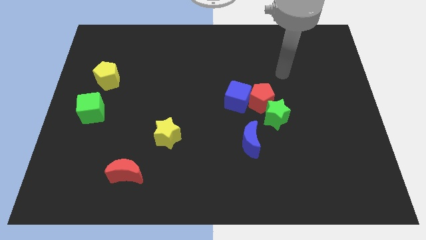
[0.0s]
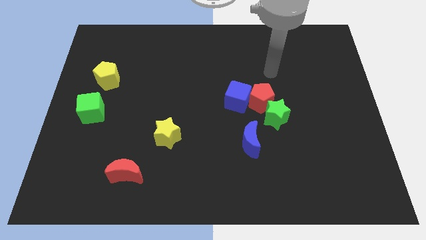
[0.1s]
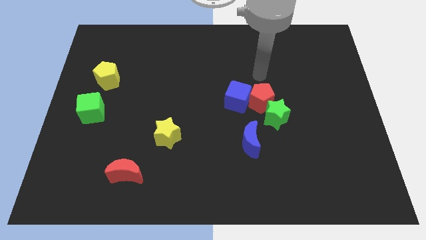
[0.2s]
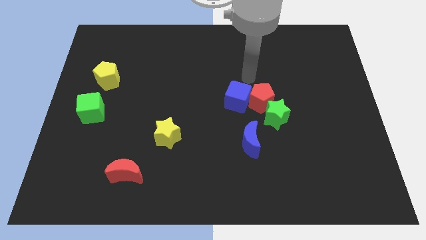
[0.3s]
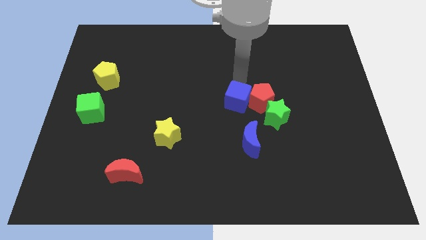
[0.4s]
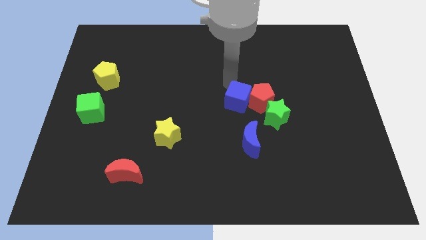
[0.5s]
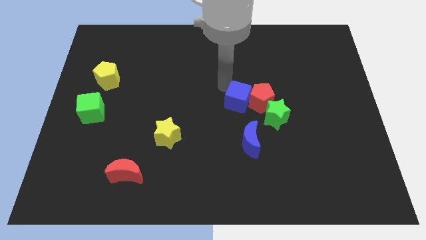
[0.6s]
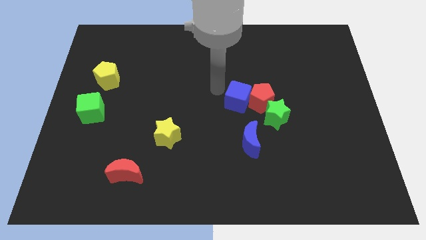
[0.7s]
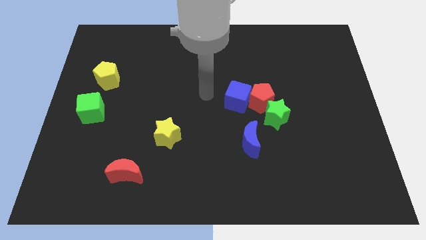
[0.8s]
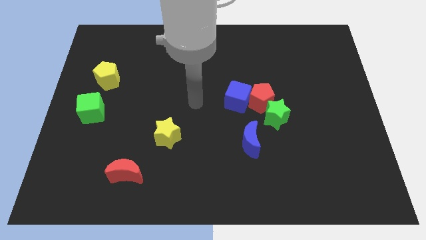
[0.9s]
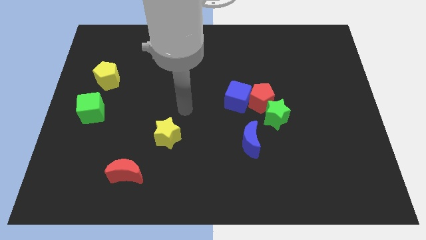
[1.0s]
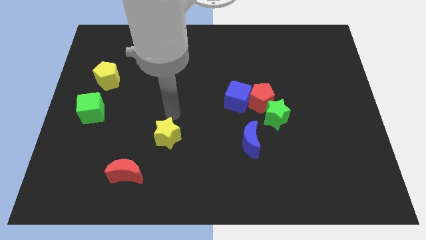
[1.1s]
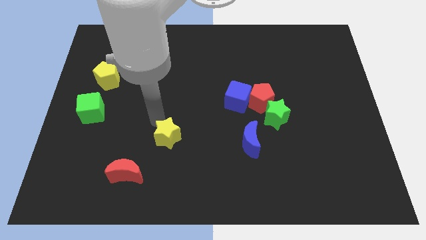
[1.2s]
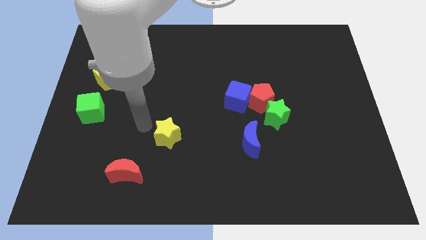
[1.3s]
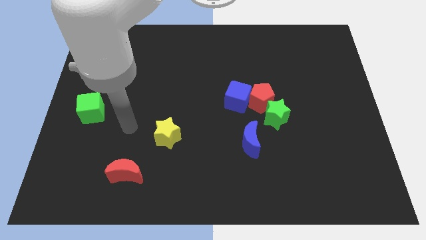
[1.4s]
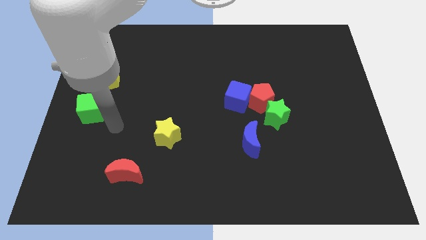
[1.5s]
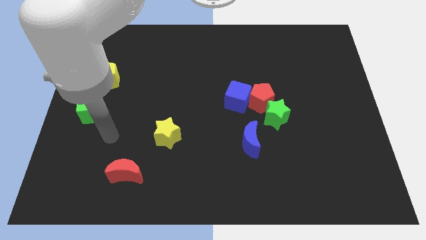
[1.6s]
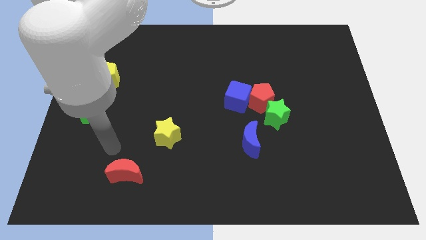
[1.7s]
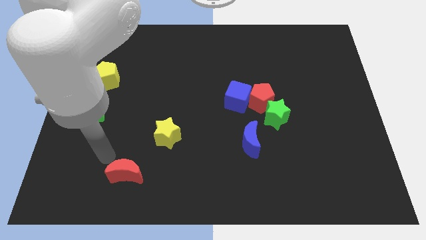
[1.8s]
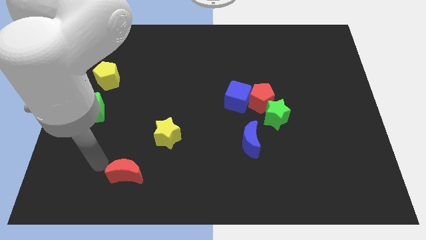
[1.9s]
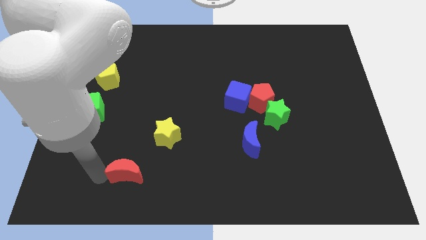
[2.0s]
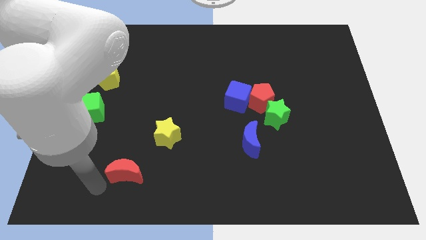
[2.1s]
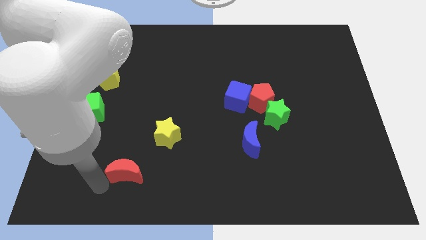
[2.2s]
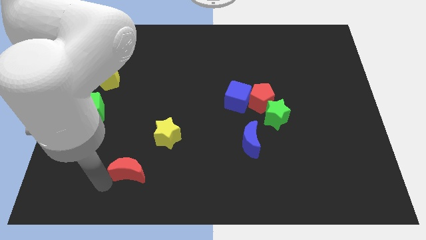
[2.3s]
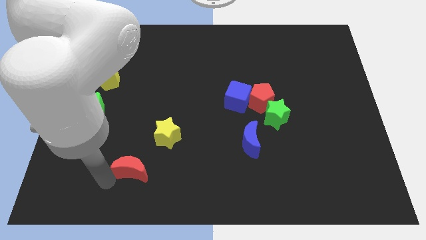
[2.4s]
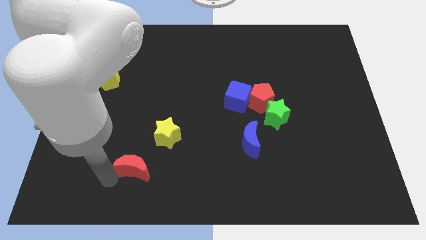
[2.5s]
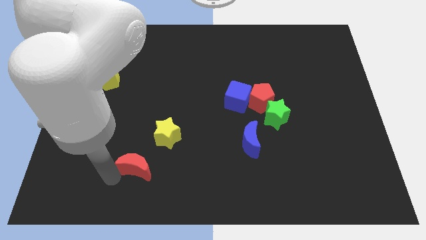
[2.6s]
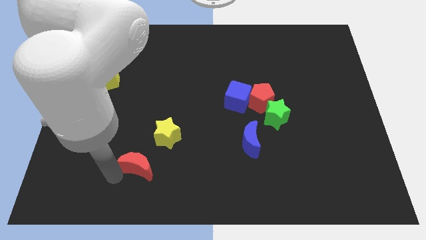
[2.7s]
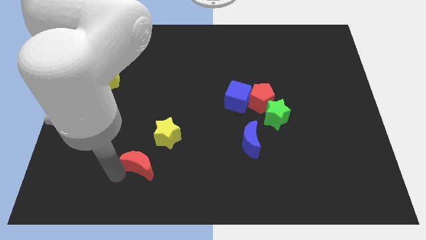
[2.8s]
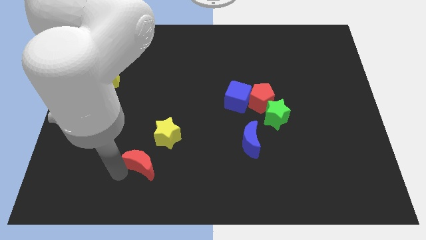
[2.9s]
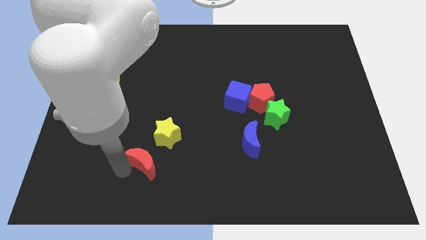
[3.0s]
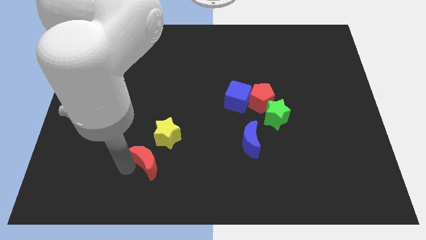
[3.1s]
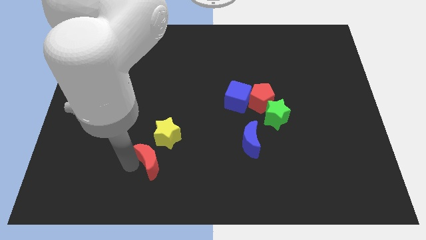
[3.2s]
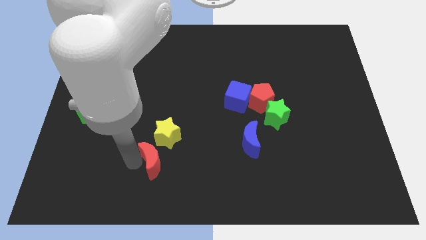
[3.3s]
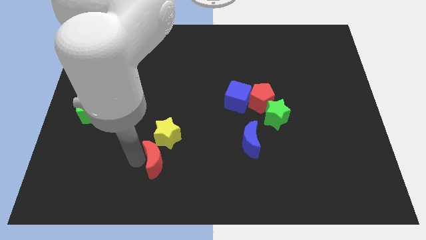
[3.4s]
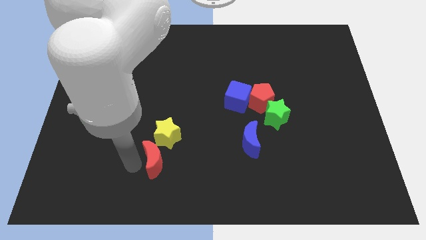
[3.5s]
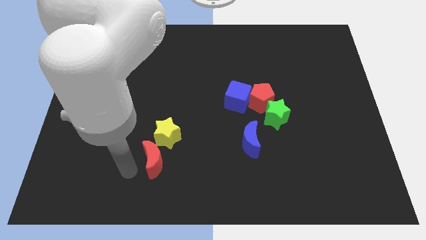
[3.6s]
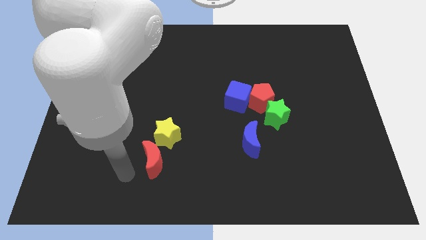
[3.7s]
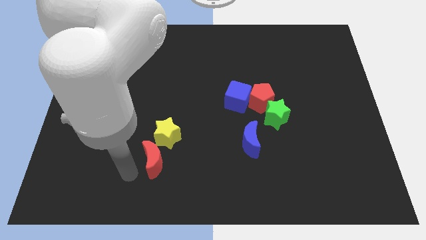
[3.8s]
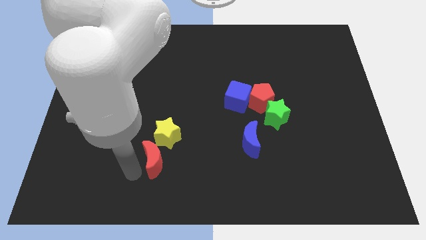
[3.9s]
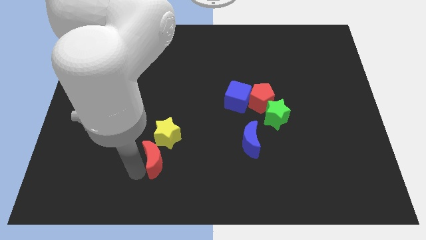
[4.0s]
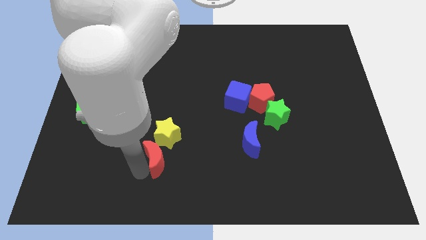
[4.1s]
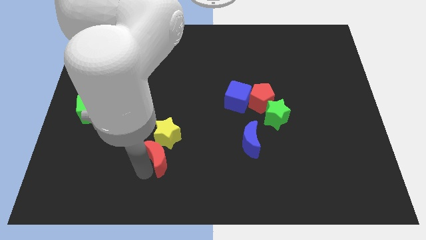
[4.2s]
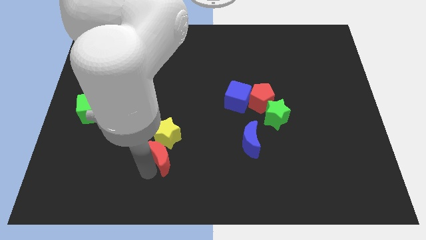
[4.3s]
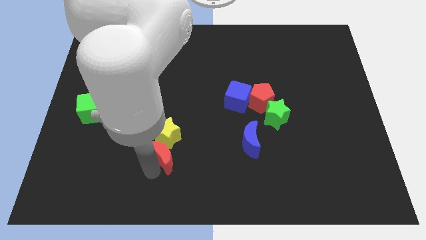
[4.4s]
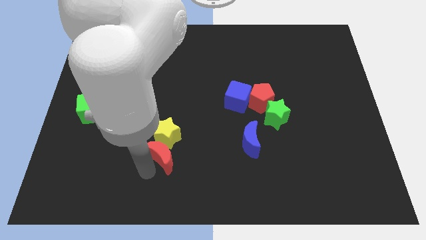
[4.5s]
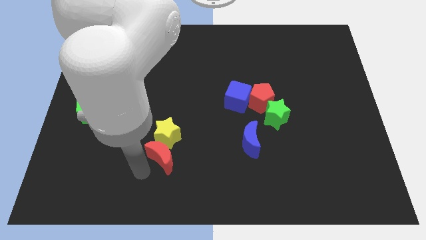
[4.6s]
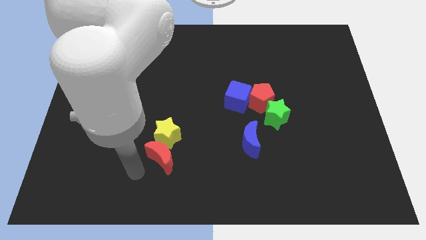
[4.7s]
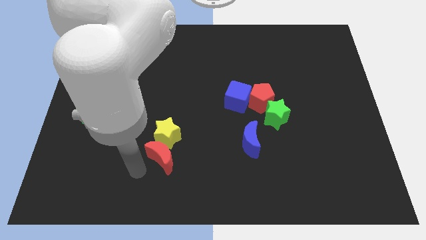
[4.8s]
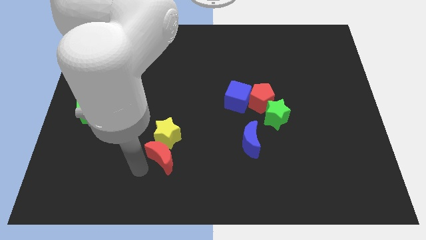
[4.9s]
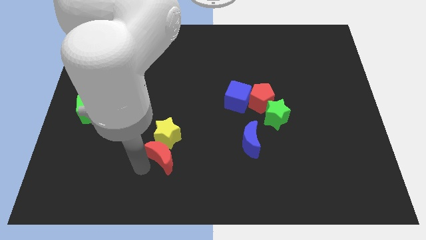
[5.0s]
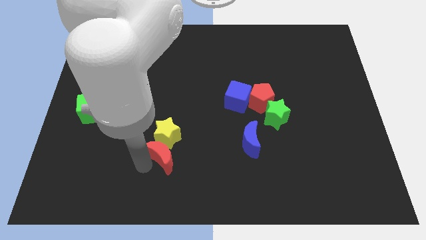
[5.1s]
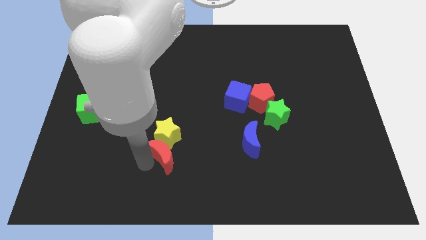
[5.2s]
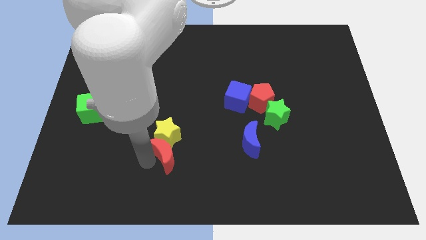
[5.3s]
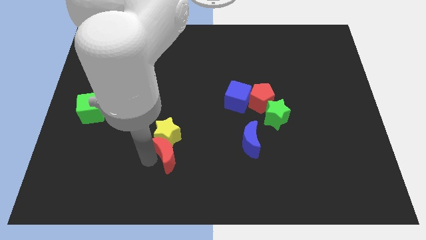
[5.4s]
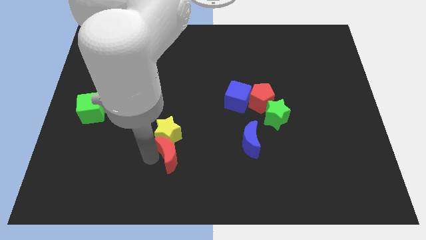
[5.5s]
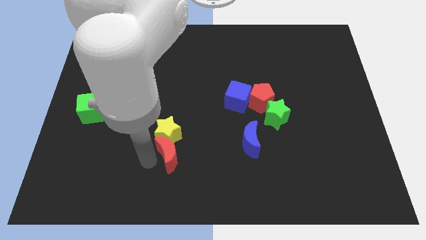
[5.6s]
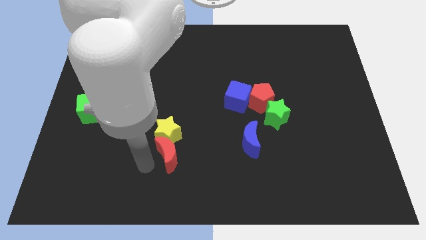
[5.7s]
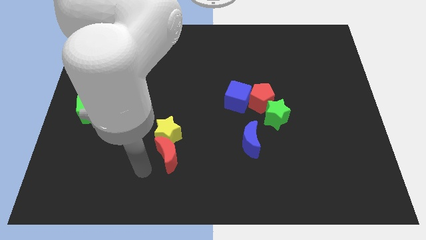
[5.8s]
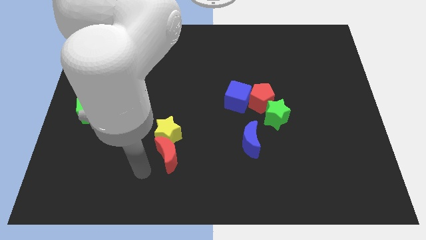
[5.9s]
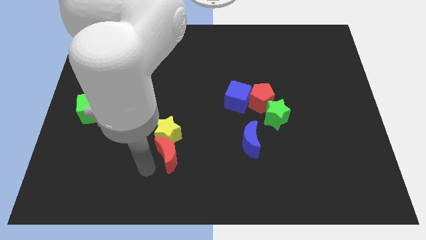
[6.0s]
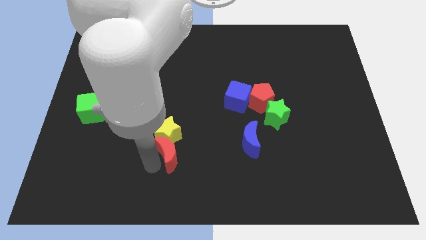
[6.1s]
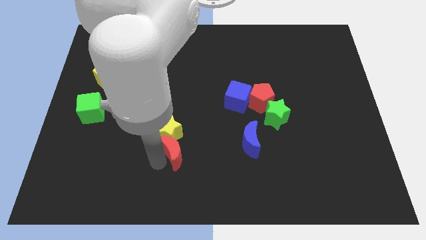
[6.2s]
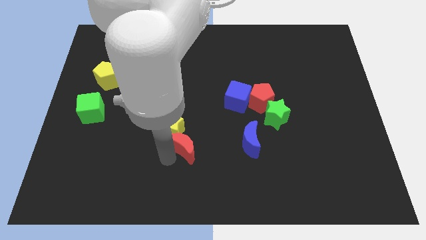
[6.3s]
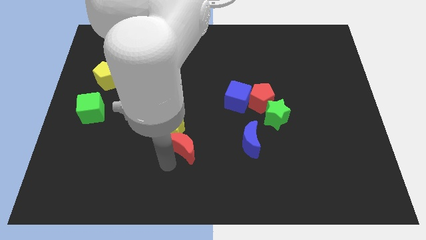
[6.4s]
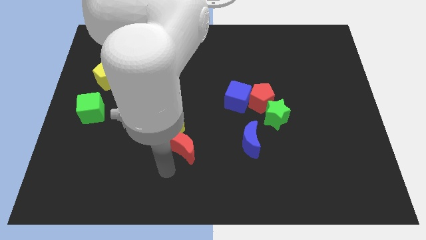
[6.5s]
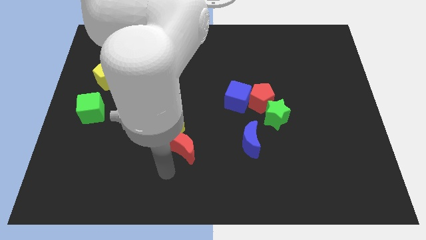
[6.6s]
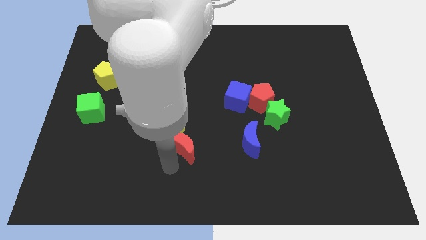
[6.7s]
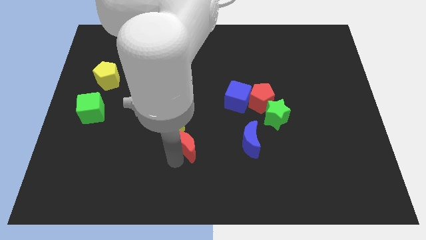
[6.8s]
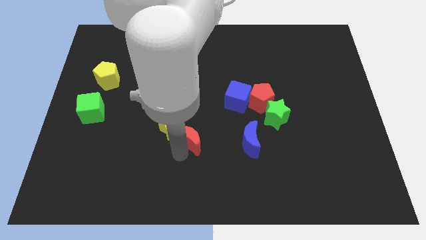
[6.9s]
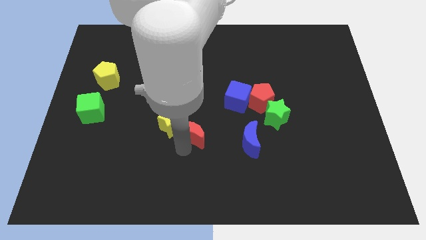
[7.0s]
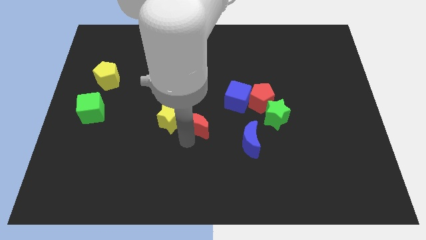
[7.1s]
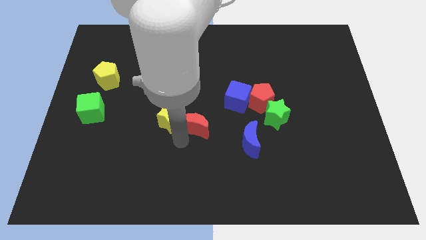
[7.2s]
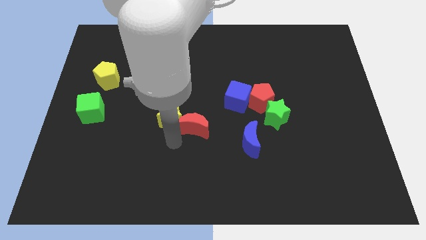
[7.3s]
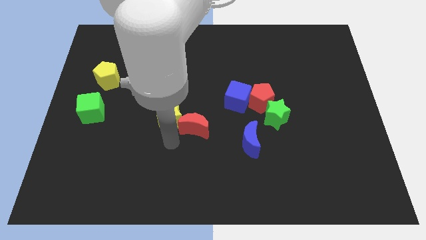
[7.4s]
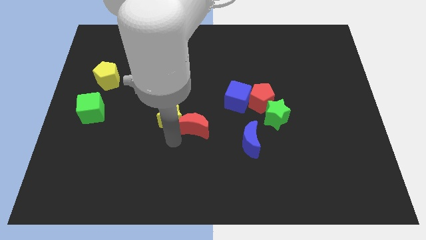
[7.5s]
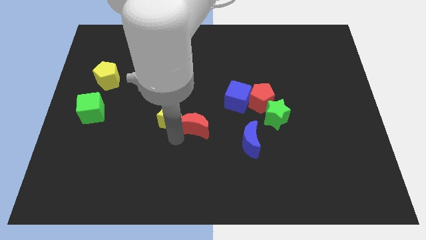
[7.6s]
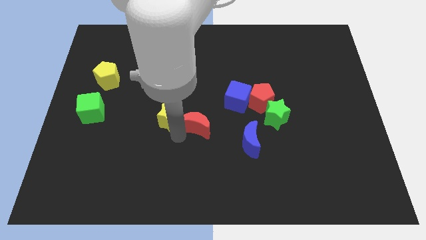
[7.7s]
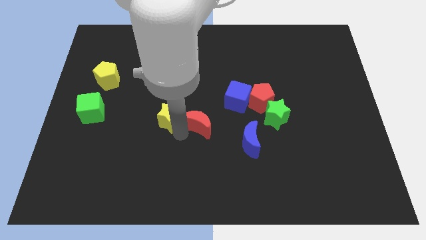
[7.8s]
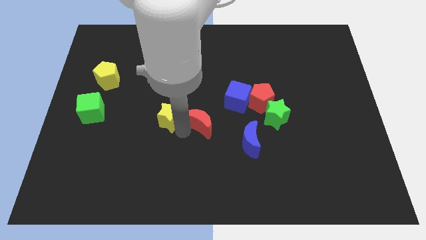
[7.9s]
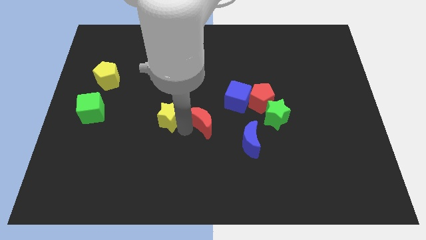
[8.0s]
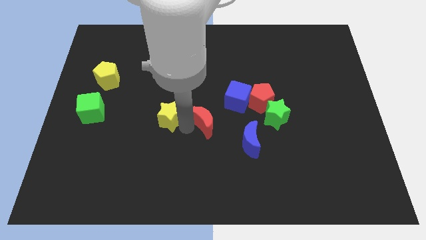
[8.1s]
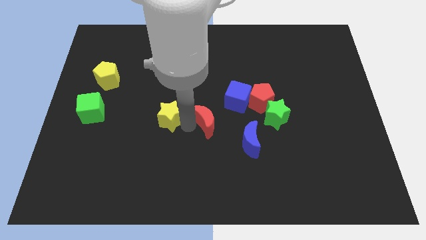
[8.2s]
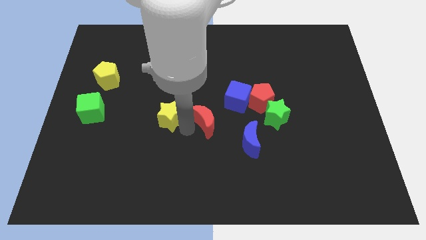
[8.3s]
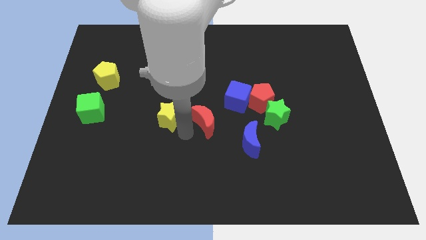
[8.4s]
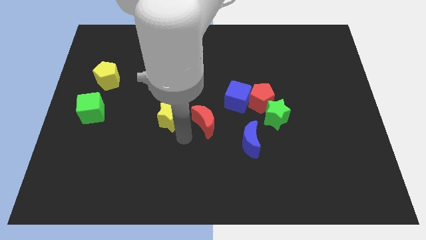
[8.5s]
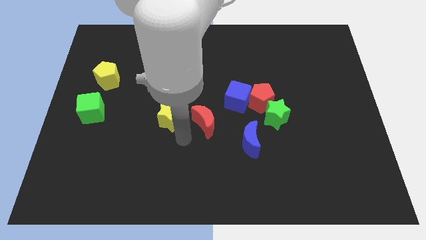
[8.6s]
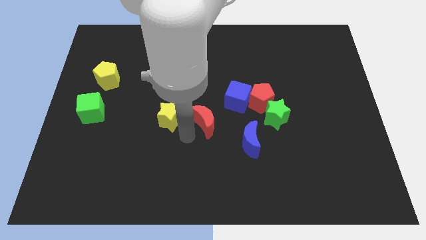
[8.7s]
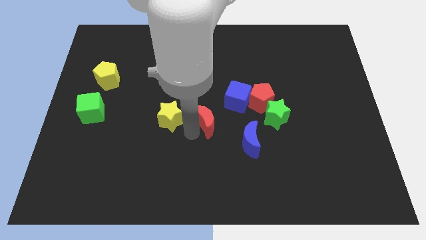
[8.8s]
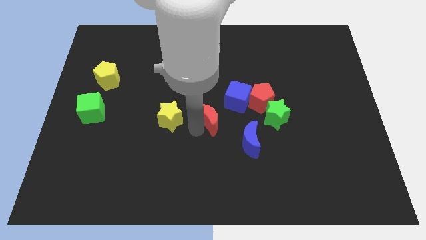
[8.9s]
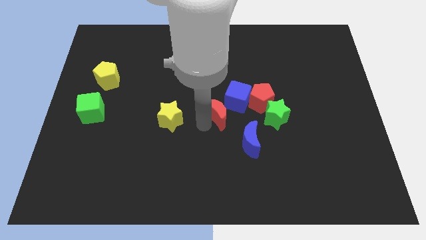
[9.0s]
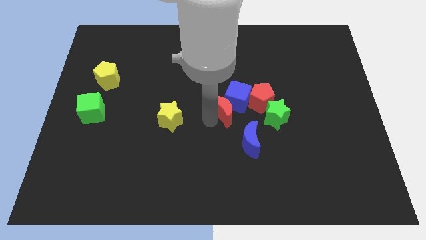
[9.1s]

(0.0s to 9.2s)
put the red moon towards the blue cube
